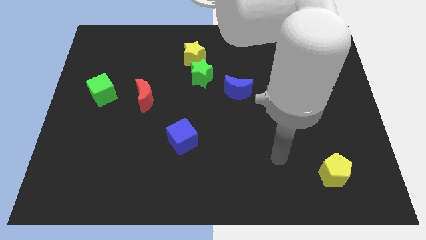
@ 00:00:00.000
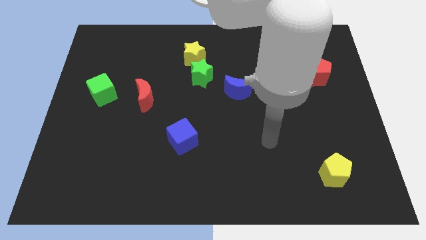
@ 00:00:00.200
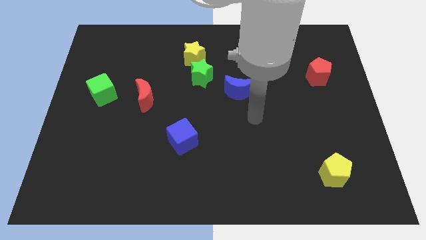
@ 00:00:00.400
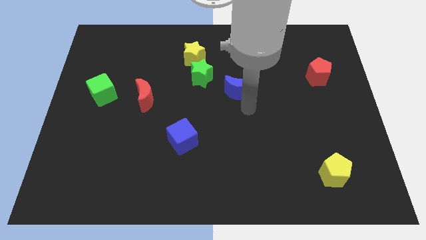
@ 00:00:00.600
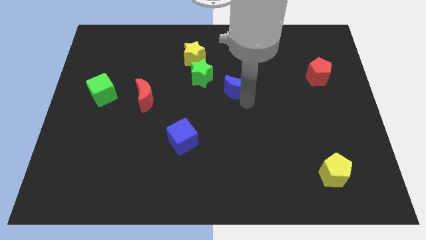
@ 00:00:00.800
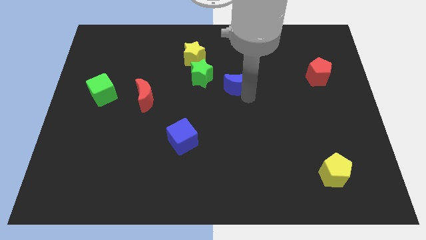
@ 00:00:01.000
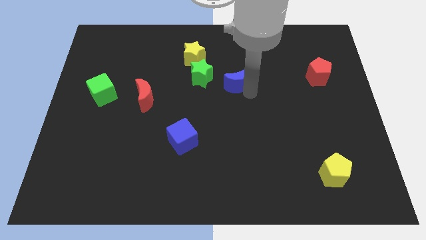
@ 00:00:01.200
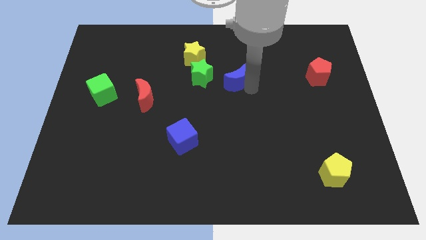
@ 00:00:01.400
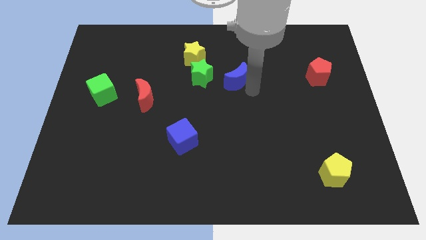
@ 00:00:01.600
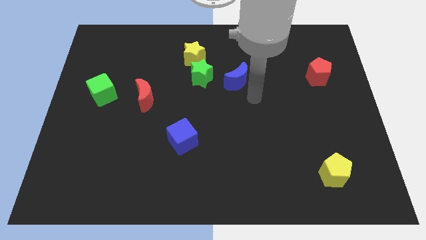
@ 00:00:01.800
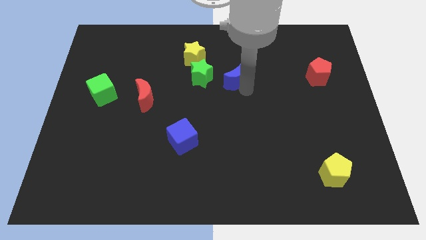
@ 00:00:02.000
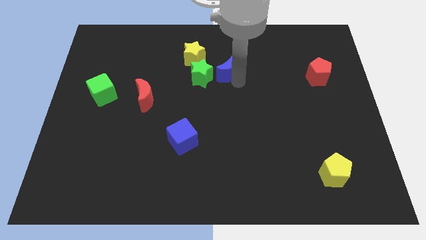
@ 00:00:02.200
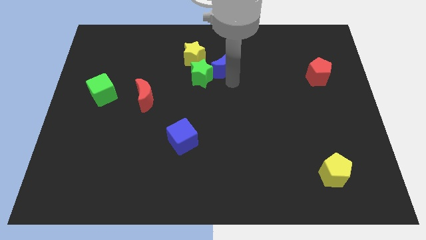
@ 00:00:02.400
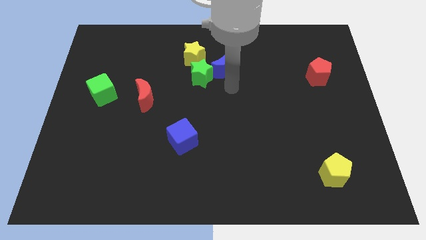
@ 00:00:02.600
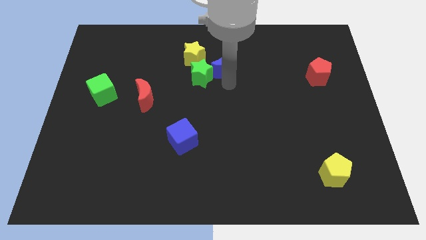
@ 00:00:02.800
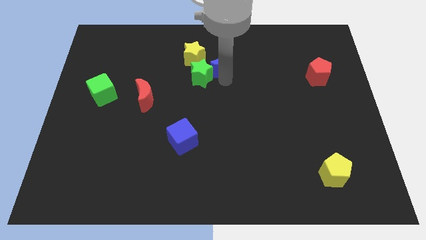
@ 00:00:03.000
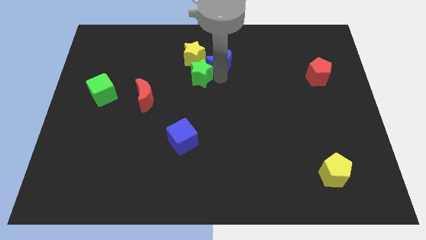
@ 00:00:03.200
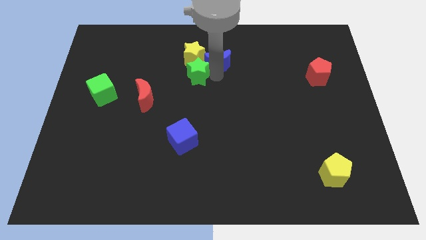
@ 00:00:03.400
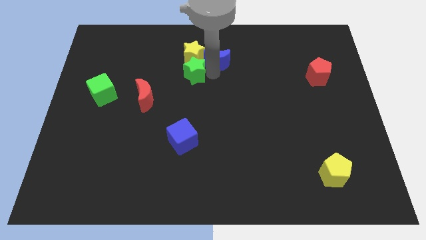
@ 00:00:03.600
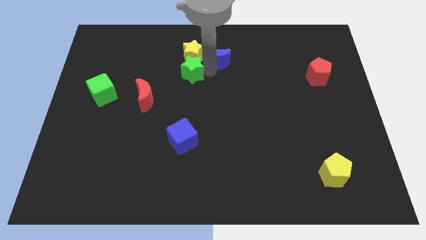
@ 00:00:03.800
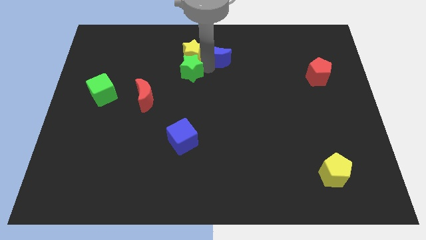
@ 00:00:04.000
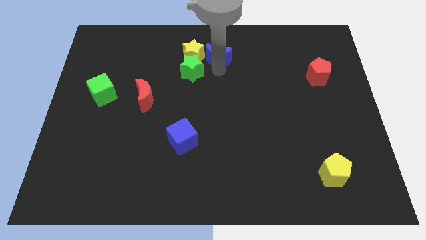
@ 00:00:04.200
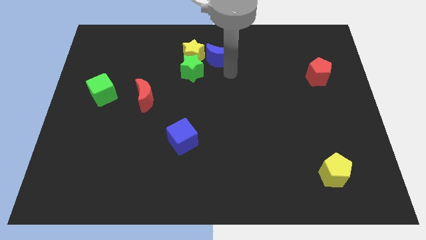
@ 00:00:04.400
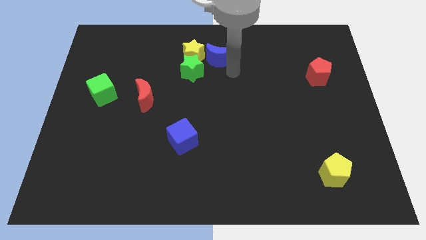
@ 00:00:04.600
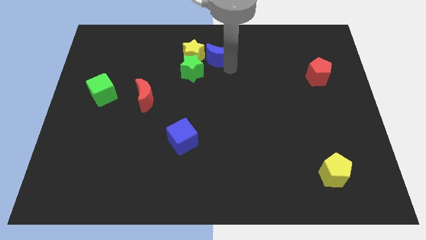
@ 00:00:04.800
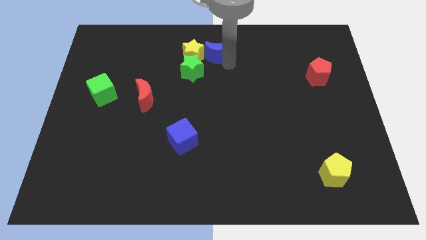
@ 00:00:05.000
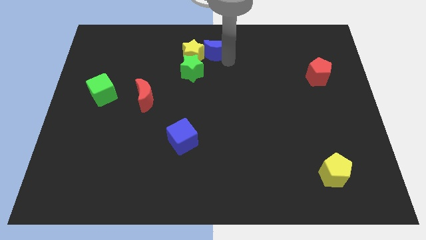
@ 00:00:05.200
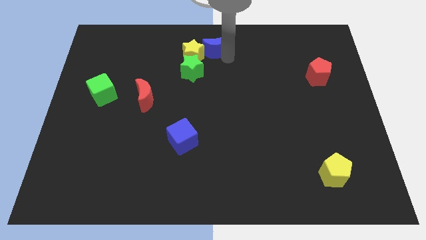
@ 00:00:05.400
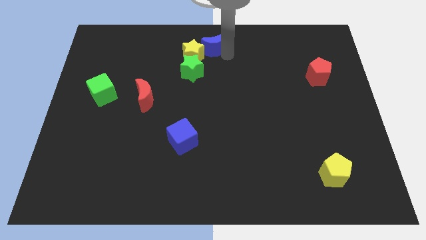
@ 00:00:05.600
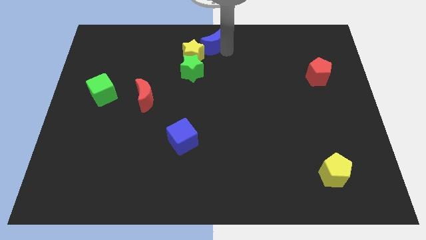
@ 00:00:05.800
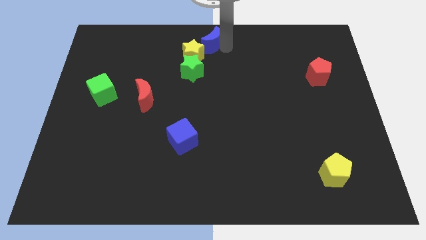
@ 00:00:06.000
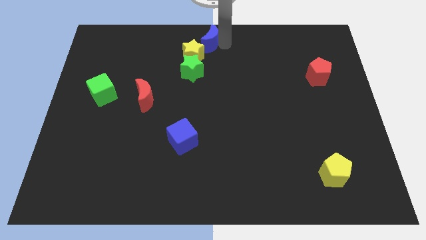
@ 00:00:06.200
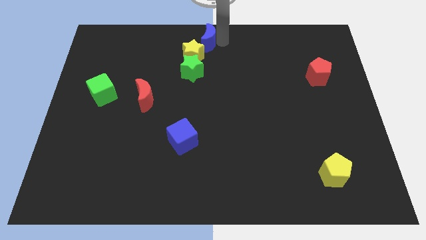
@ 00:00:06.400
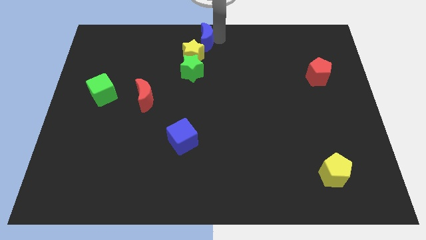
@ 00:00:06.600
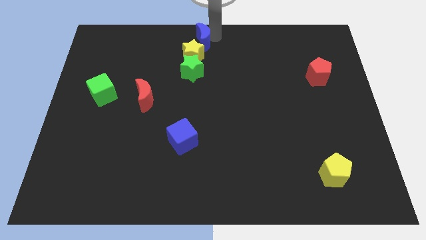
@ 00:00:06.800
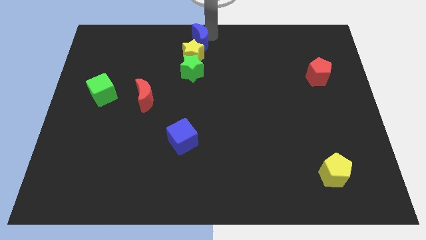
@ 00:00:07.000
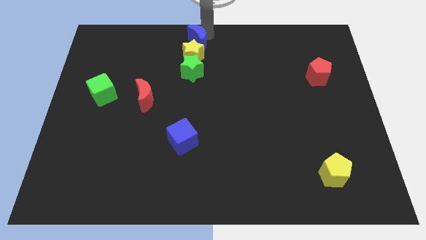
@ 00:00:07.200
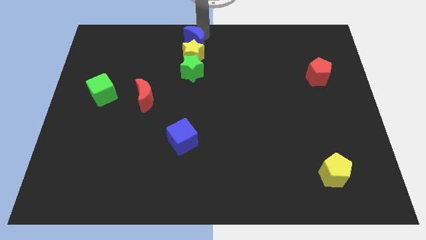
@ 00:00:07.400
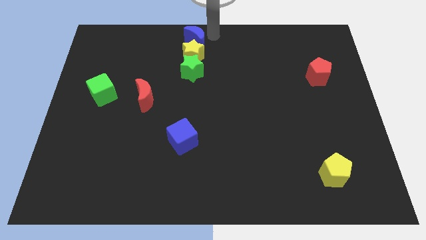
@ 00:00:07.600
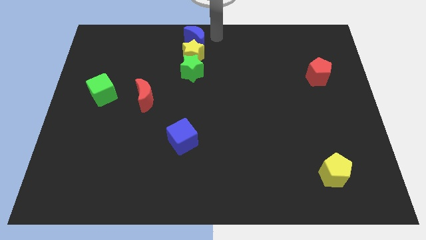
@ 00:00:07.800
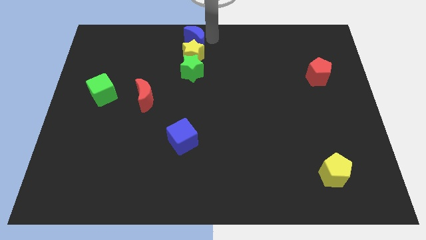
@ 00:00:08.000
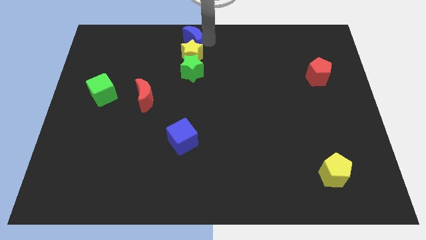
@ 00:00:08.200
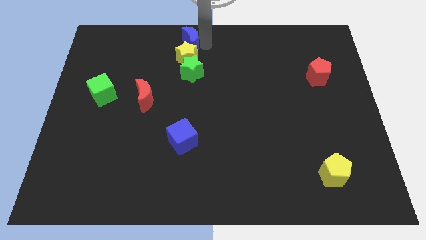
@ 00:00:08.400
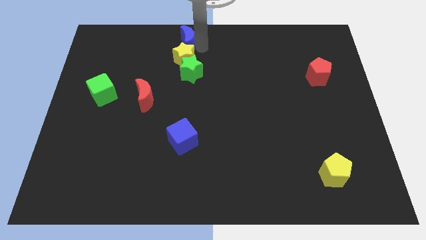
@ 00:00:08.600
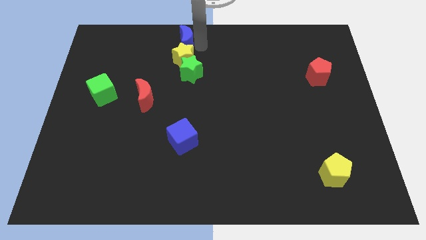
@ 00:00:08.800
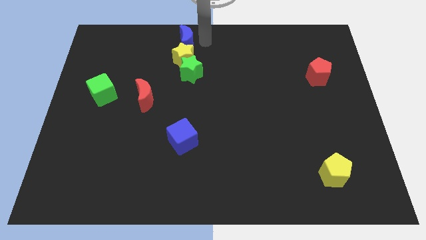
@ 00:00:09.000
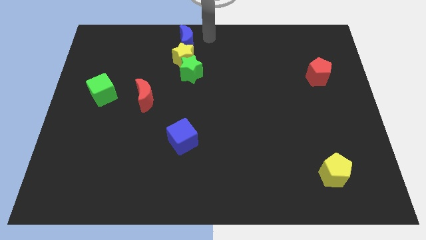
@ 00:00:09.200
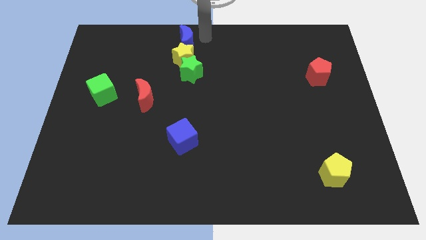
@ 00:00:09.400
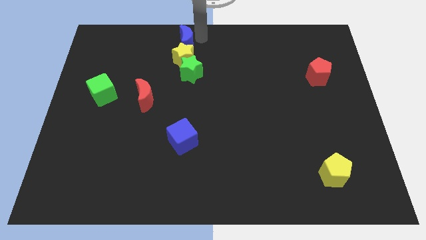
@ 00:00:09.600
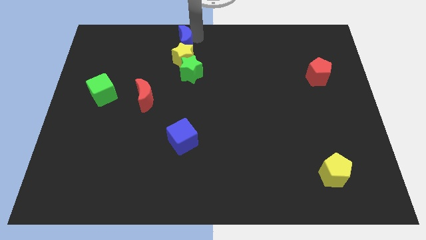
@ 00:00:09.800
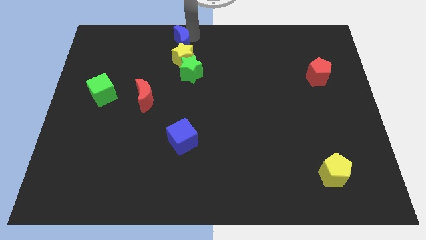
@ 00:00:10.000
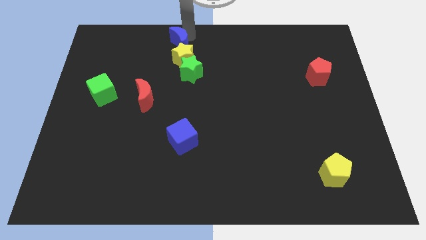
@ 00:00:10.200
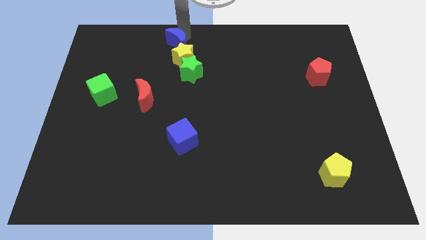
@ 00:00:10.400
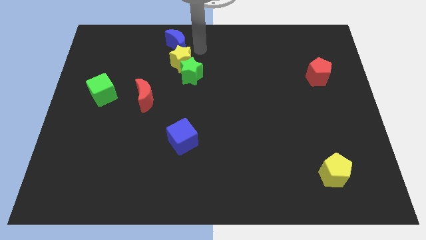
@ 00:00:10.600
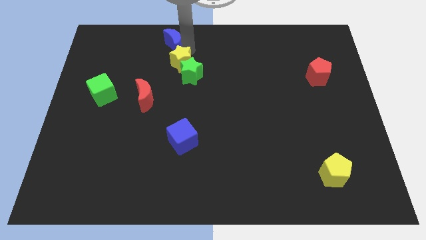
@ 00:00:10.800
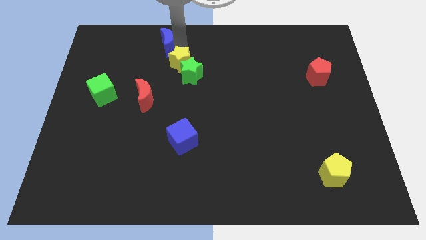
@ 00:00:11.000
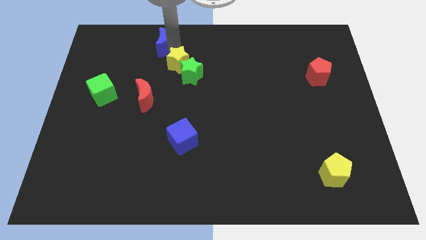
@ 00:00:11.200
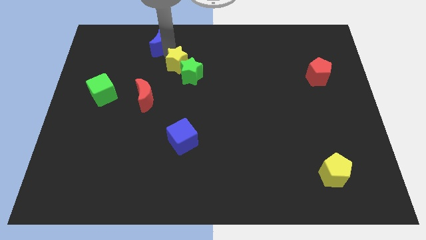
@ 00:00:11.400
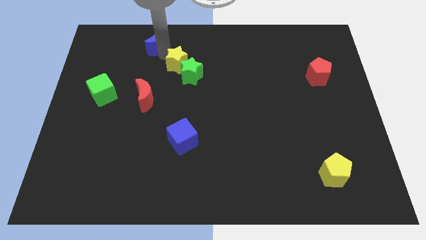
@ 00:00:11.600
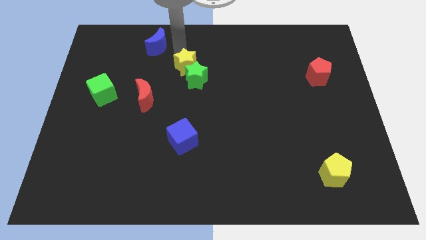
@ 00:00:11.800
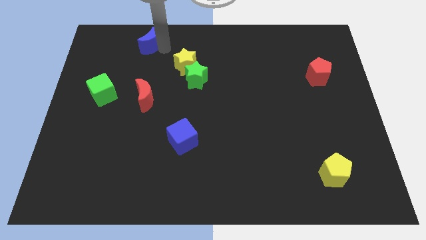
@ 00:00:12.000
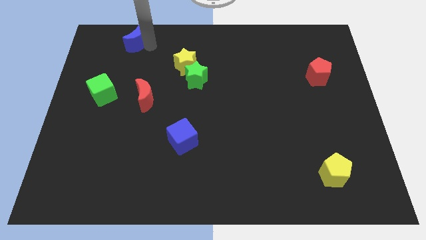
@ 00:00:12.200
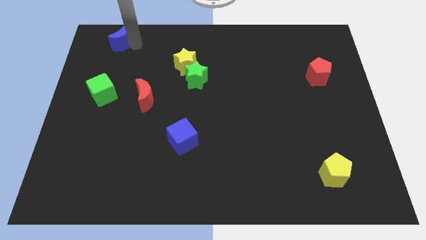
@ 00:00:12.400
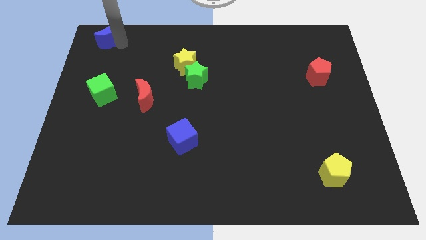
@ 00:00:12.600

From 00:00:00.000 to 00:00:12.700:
put the blue moon to the upper left corner
